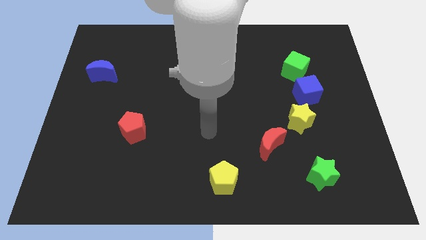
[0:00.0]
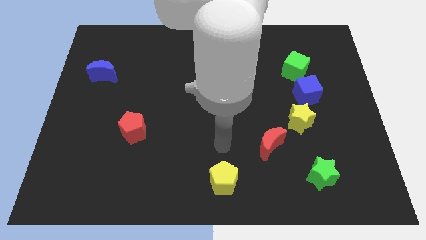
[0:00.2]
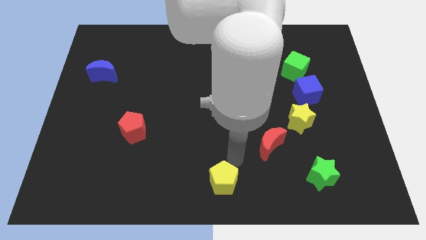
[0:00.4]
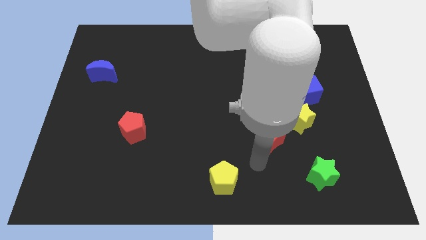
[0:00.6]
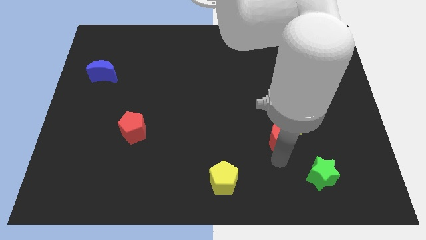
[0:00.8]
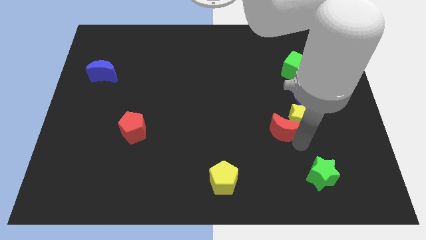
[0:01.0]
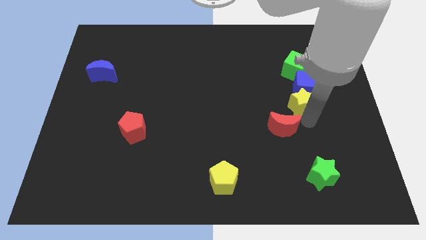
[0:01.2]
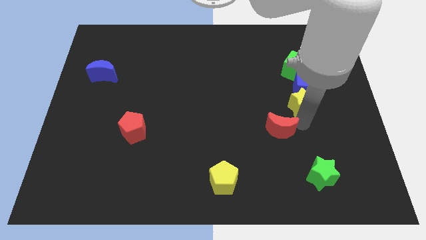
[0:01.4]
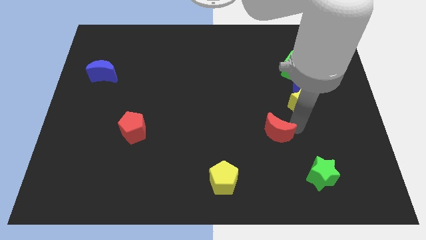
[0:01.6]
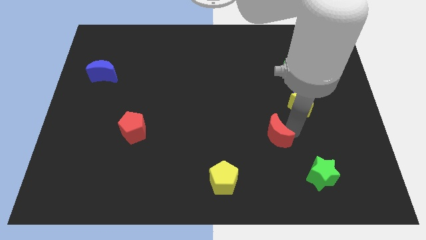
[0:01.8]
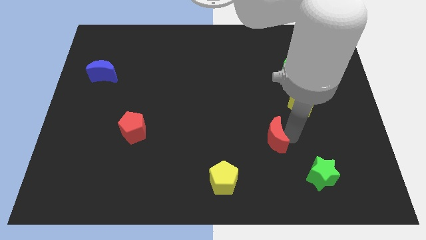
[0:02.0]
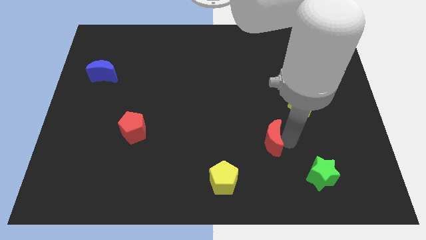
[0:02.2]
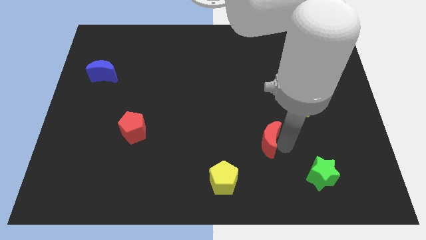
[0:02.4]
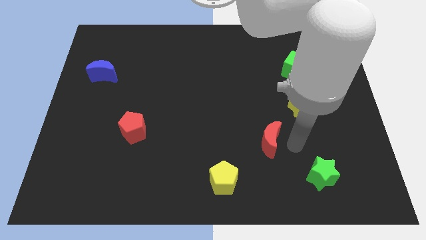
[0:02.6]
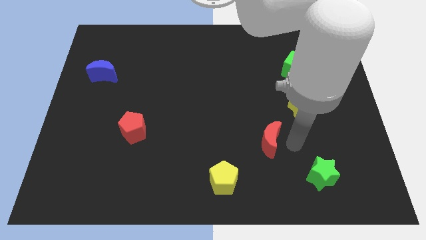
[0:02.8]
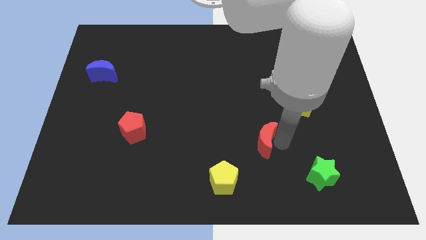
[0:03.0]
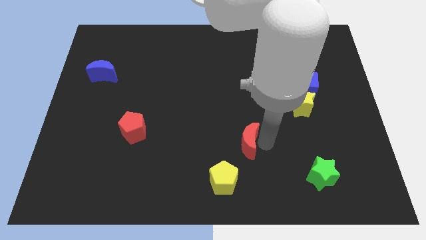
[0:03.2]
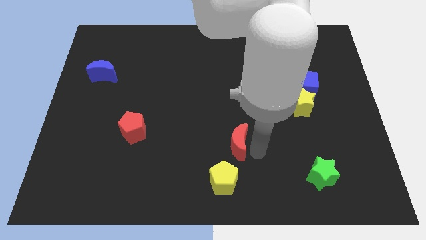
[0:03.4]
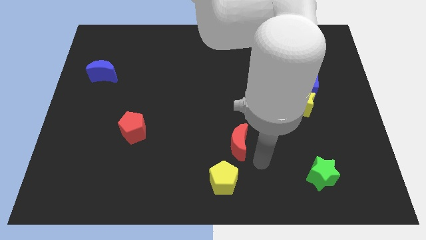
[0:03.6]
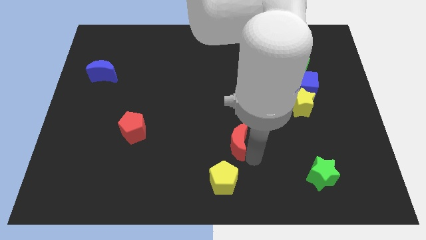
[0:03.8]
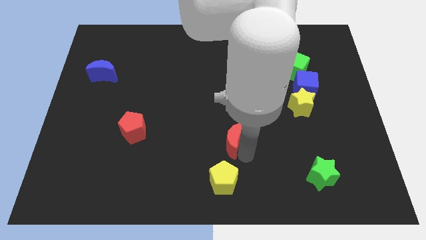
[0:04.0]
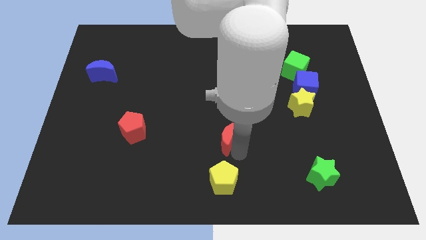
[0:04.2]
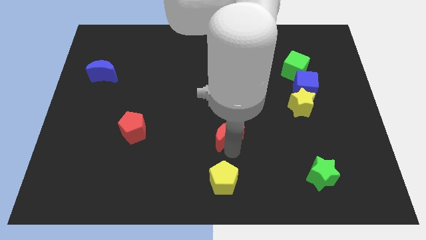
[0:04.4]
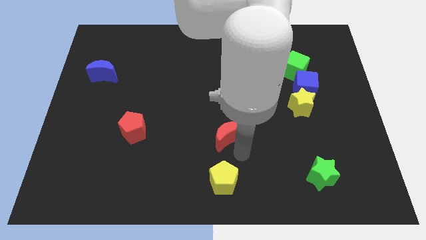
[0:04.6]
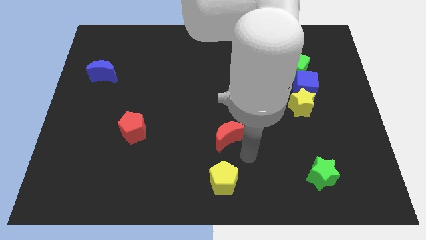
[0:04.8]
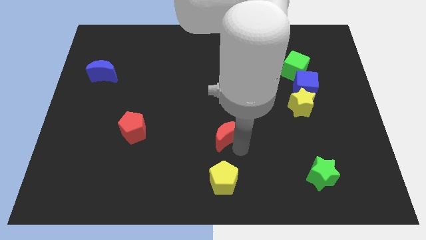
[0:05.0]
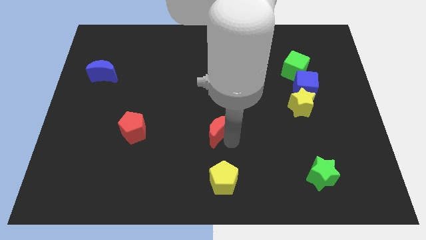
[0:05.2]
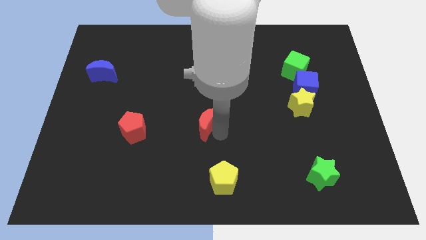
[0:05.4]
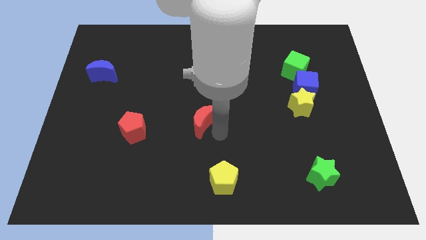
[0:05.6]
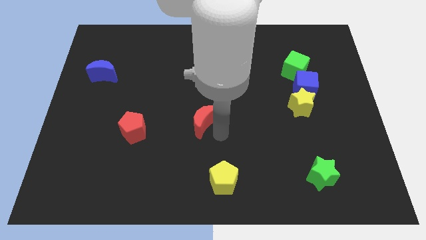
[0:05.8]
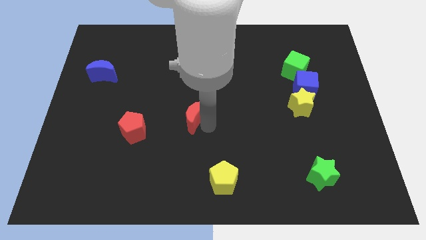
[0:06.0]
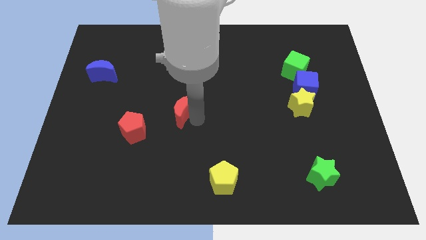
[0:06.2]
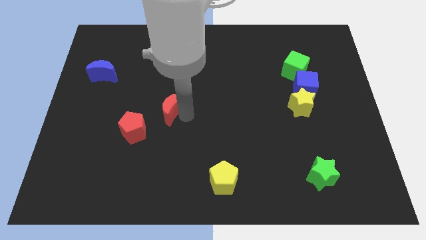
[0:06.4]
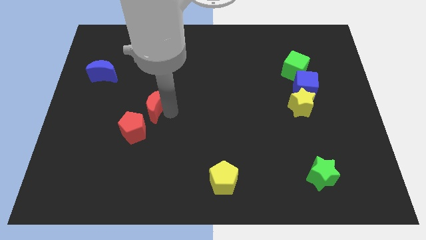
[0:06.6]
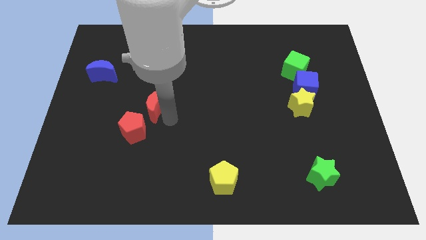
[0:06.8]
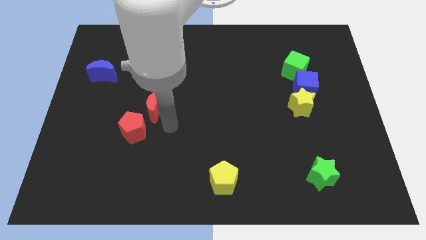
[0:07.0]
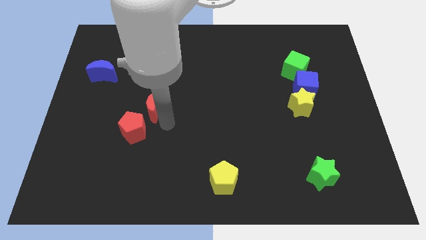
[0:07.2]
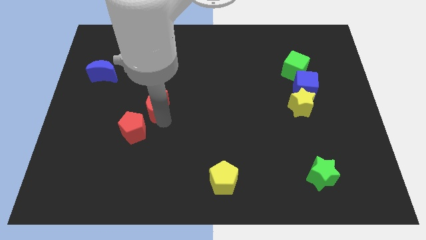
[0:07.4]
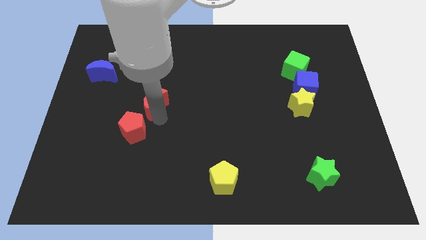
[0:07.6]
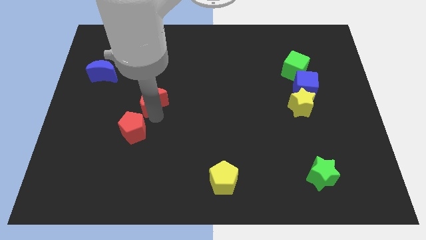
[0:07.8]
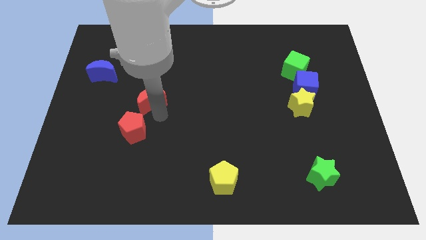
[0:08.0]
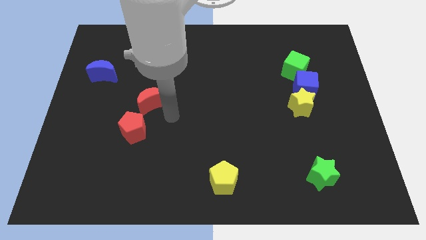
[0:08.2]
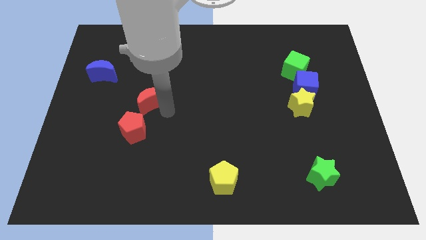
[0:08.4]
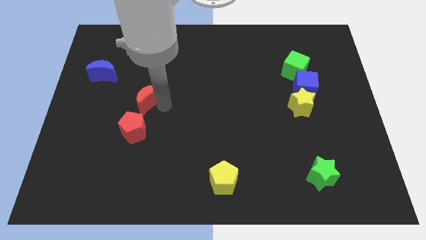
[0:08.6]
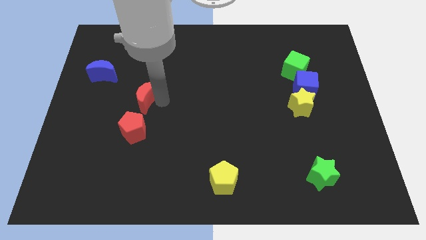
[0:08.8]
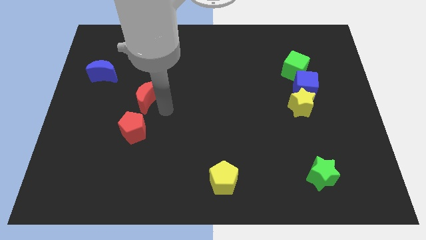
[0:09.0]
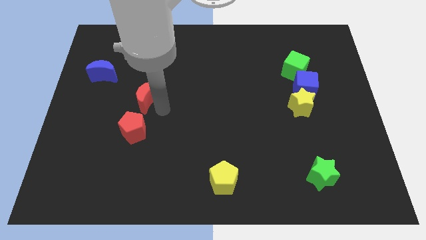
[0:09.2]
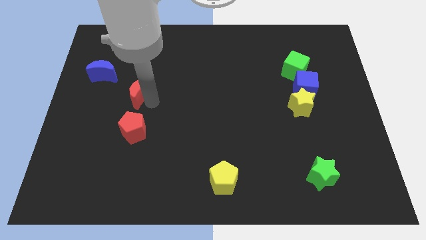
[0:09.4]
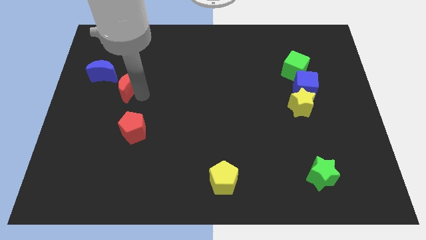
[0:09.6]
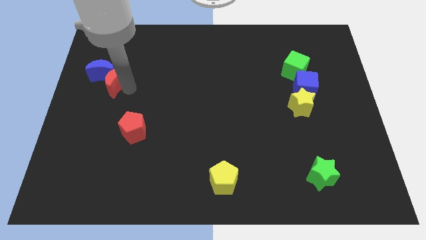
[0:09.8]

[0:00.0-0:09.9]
put the red moon close to the blue moon

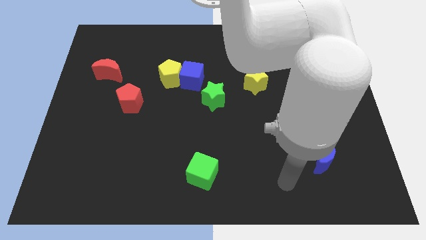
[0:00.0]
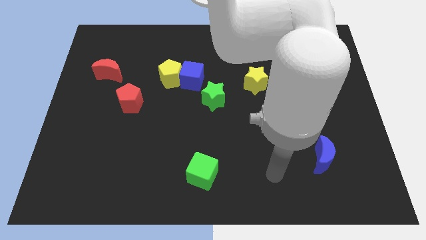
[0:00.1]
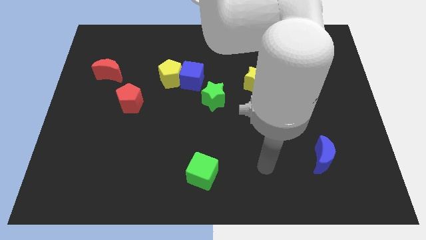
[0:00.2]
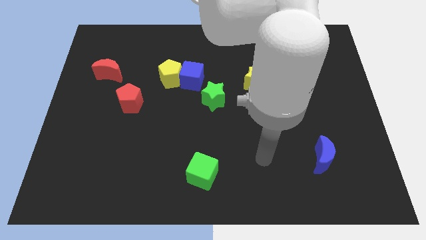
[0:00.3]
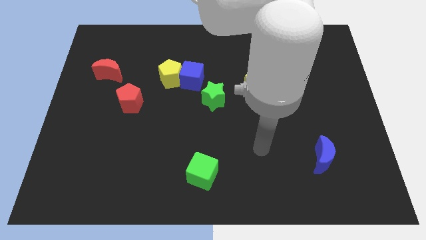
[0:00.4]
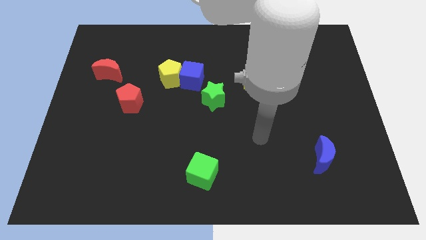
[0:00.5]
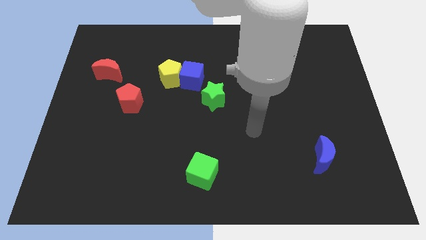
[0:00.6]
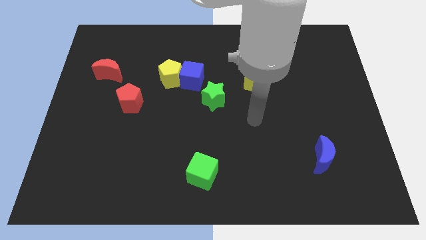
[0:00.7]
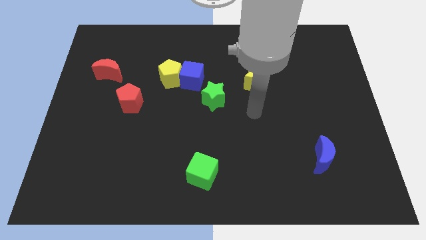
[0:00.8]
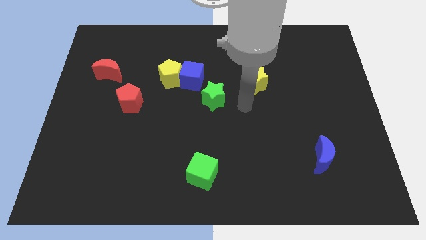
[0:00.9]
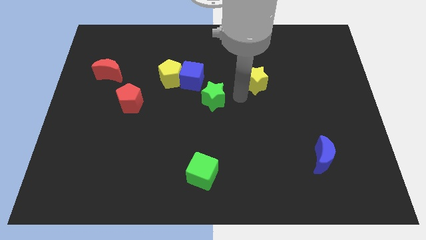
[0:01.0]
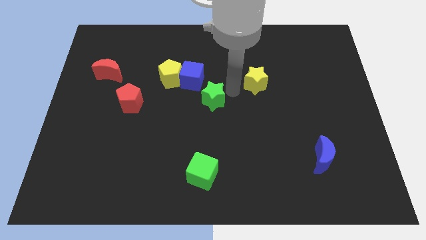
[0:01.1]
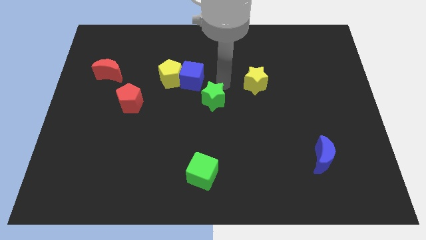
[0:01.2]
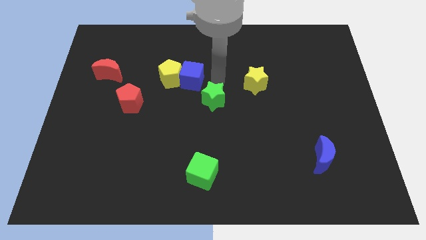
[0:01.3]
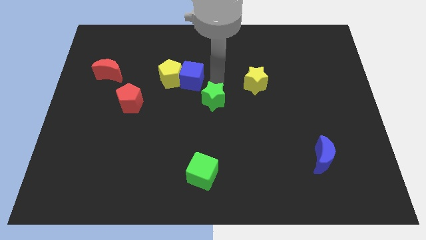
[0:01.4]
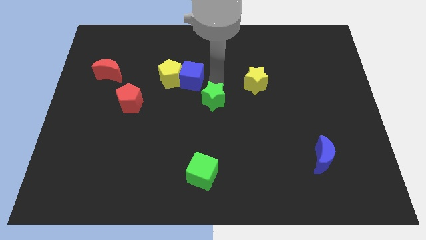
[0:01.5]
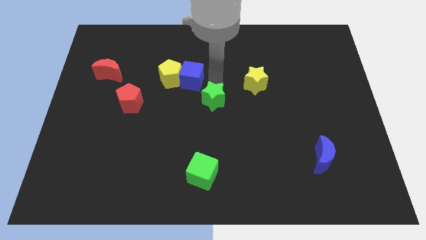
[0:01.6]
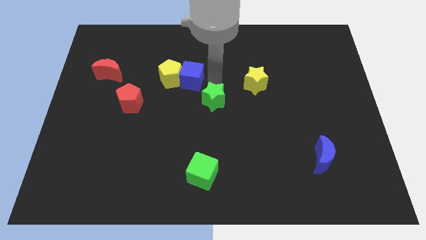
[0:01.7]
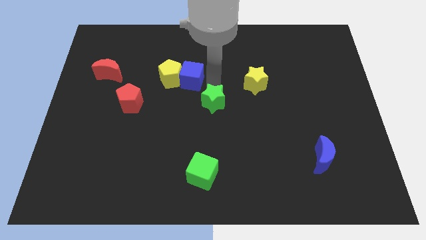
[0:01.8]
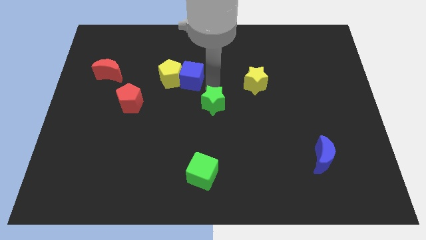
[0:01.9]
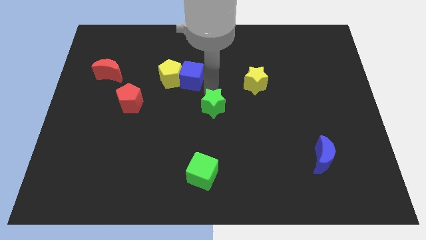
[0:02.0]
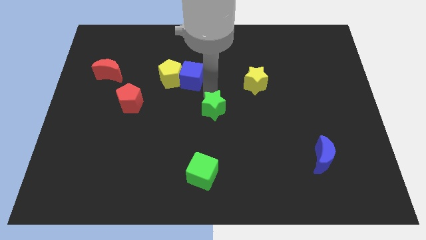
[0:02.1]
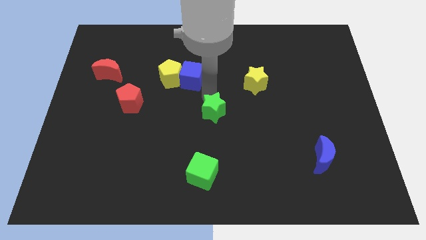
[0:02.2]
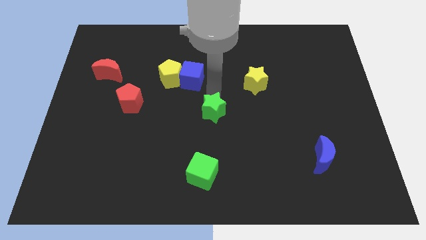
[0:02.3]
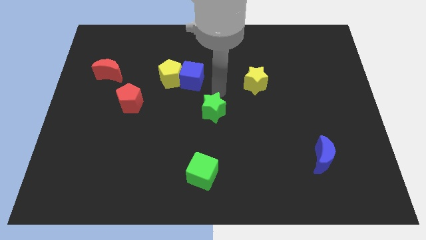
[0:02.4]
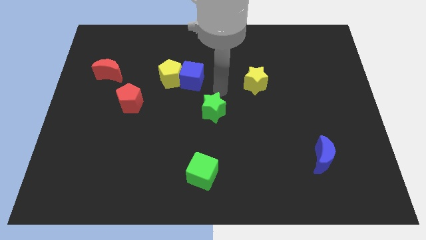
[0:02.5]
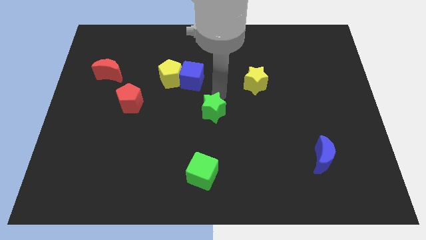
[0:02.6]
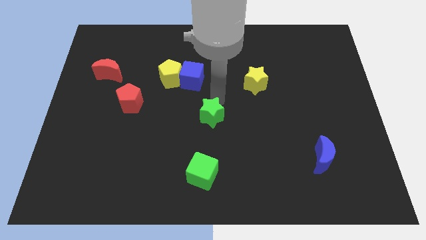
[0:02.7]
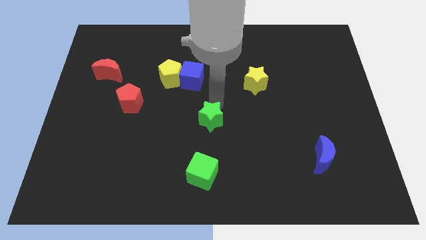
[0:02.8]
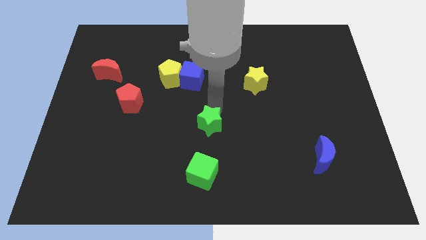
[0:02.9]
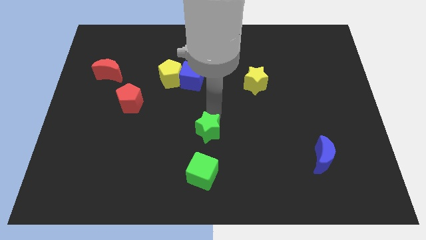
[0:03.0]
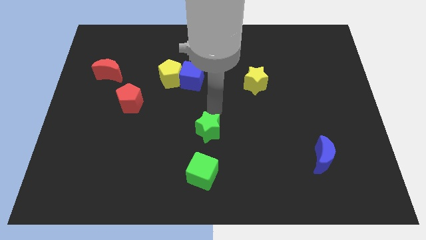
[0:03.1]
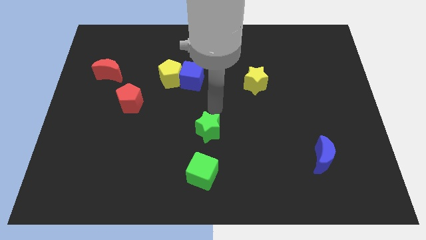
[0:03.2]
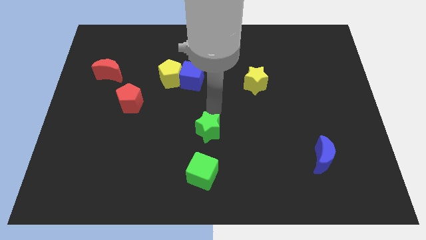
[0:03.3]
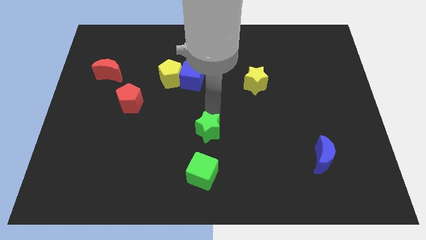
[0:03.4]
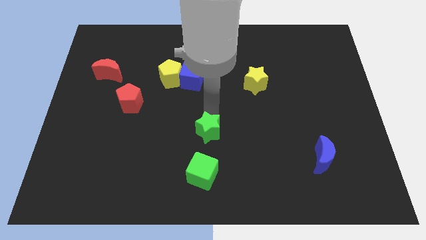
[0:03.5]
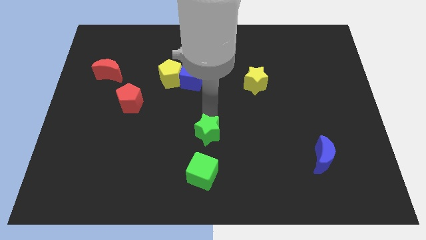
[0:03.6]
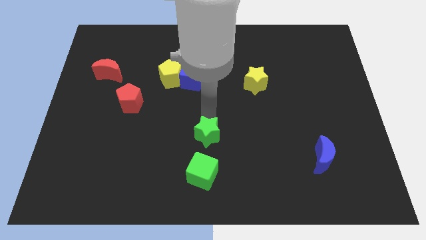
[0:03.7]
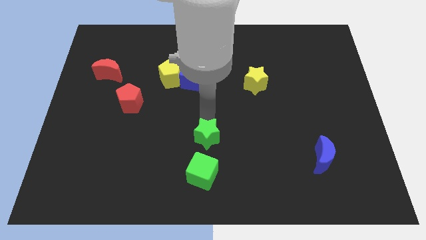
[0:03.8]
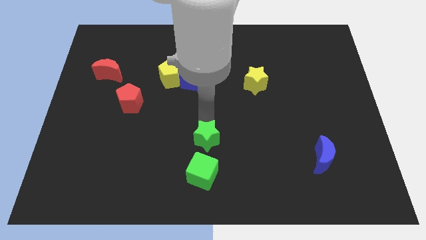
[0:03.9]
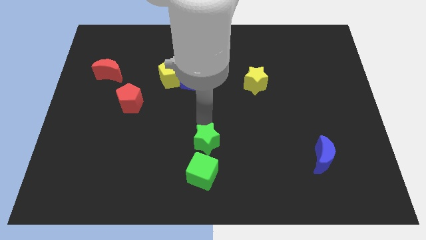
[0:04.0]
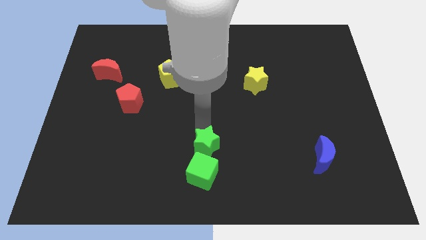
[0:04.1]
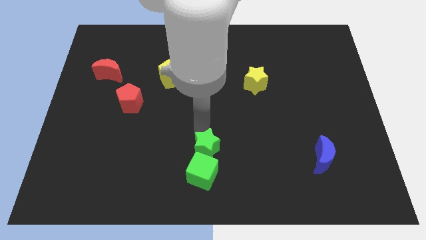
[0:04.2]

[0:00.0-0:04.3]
move the green star close to the green cube
